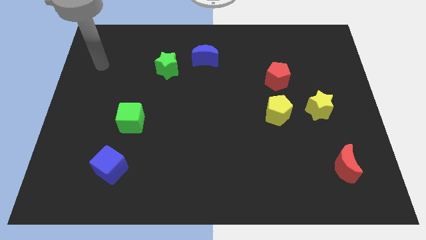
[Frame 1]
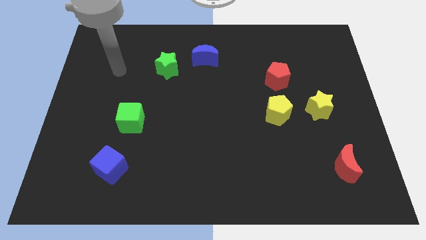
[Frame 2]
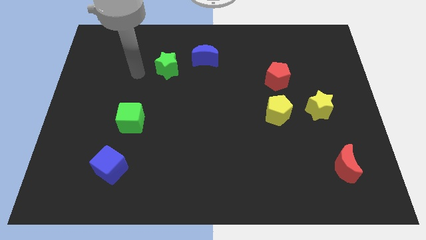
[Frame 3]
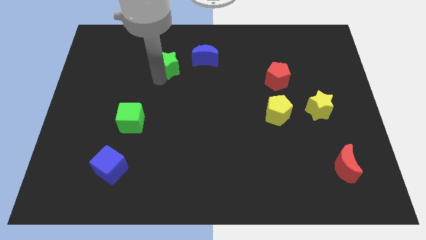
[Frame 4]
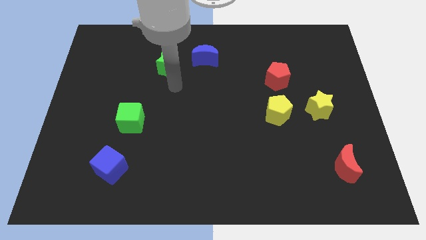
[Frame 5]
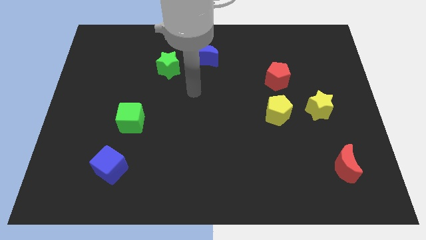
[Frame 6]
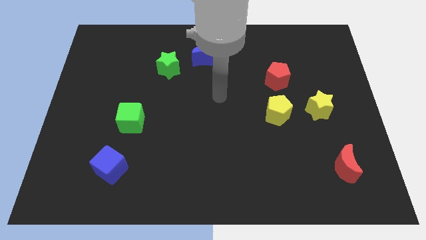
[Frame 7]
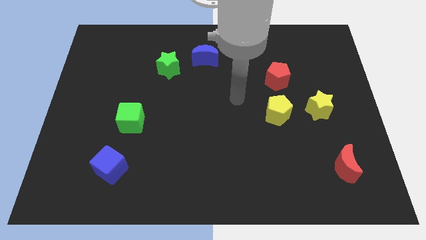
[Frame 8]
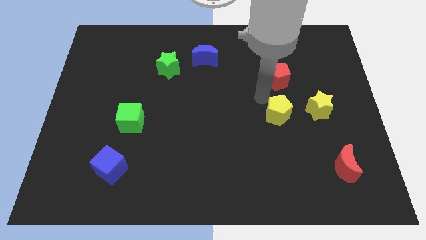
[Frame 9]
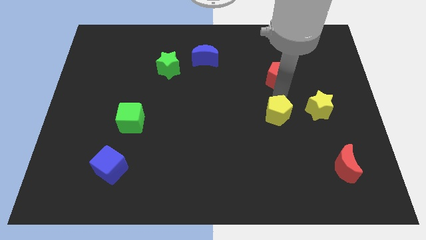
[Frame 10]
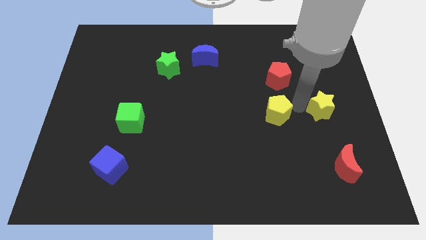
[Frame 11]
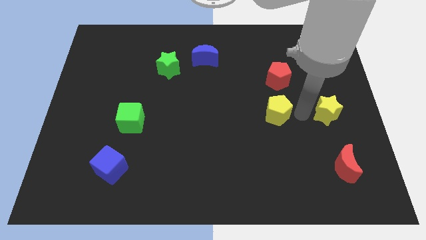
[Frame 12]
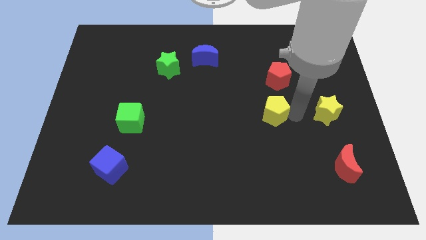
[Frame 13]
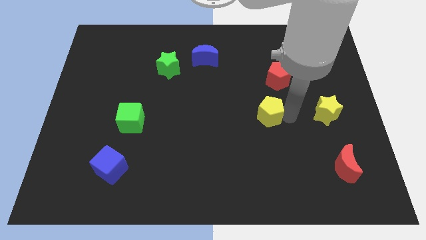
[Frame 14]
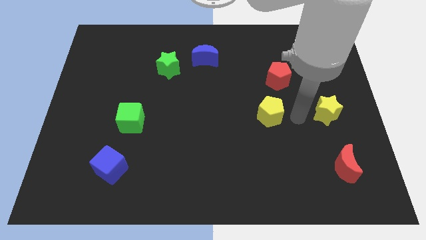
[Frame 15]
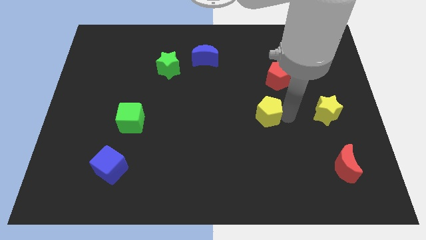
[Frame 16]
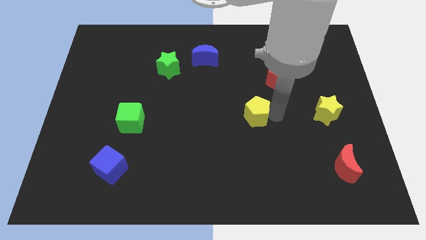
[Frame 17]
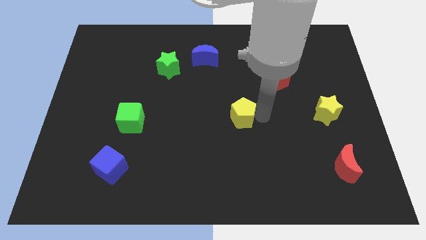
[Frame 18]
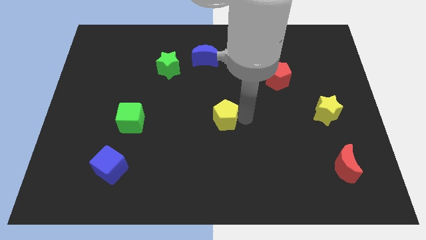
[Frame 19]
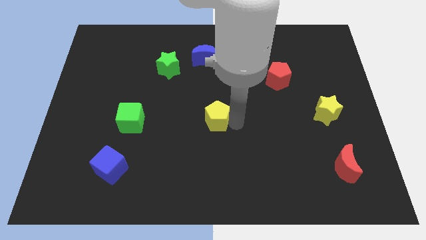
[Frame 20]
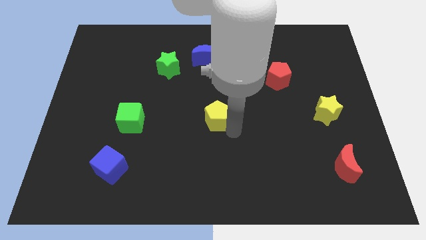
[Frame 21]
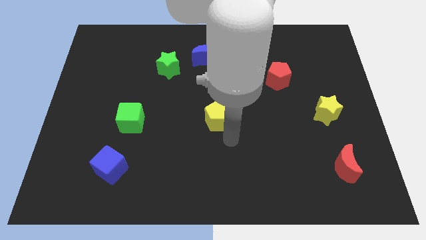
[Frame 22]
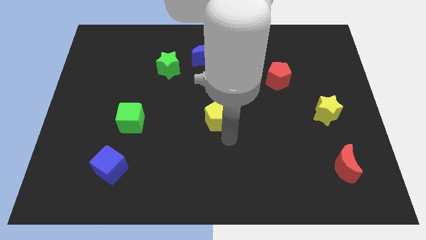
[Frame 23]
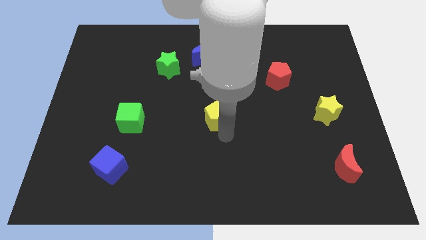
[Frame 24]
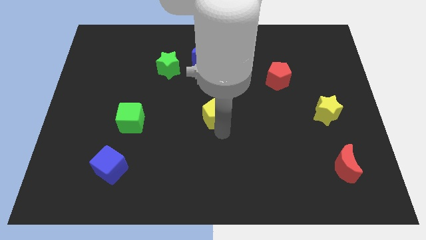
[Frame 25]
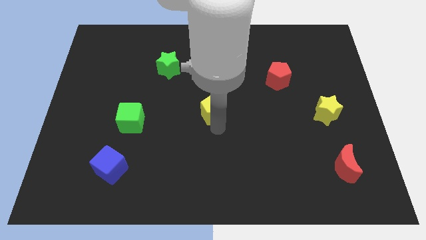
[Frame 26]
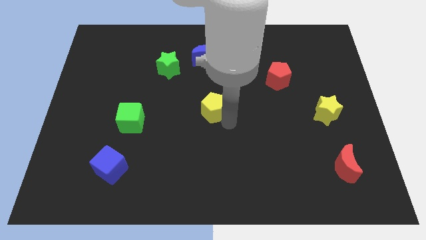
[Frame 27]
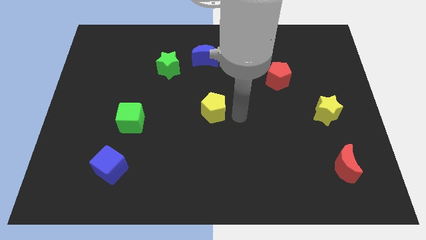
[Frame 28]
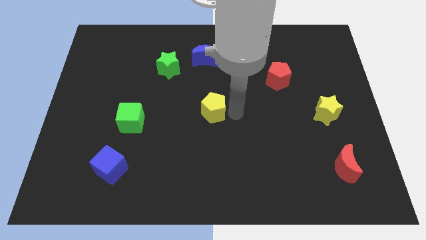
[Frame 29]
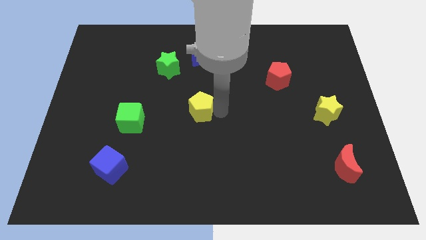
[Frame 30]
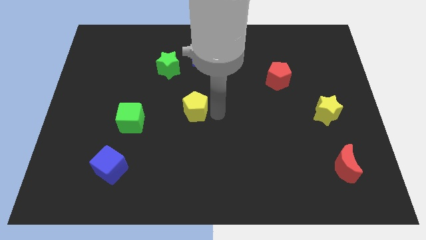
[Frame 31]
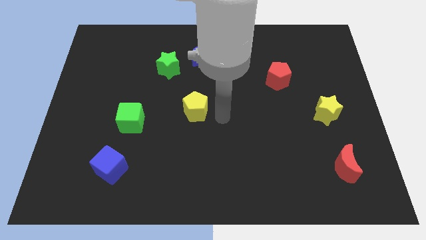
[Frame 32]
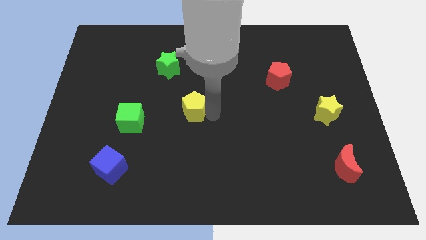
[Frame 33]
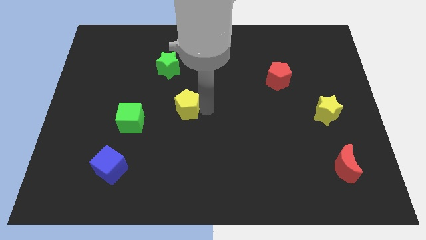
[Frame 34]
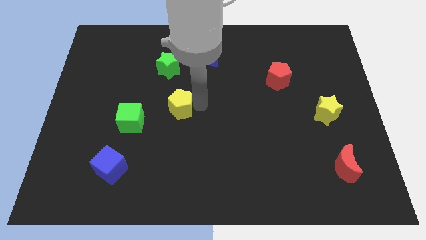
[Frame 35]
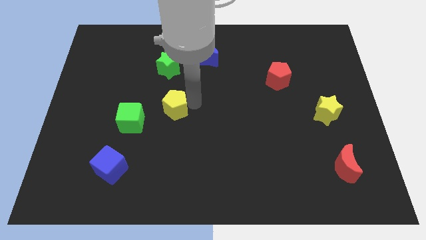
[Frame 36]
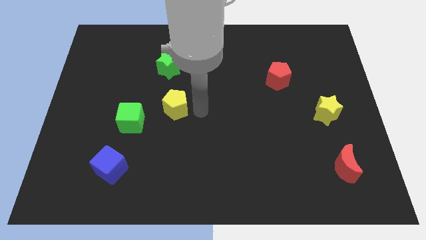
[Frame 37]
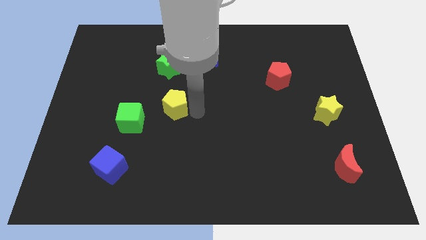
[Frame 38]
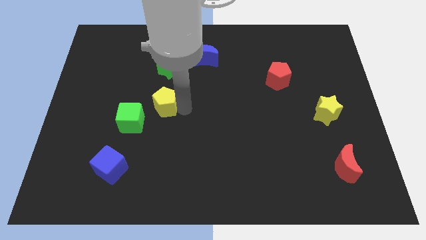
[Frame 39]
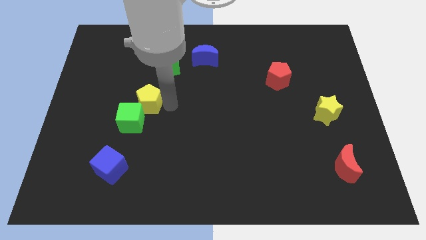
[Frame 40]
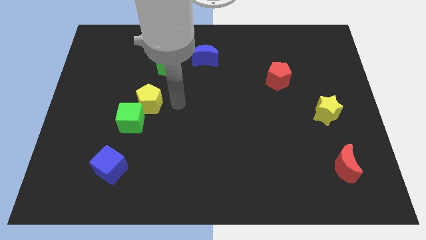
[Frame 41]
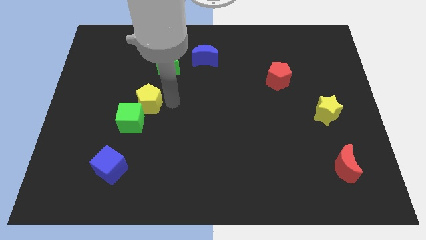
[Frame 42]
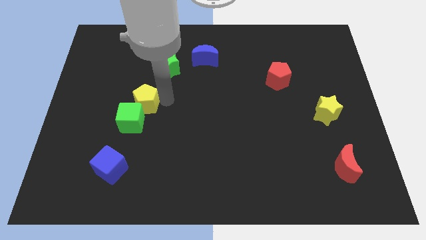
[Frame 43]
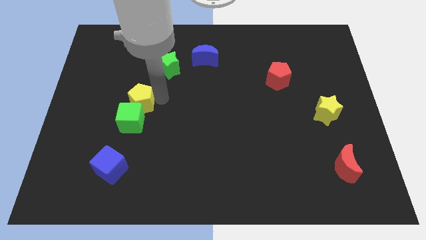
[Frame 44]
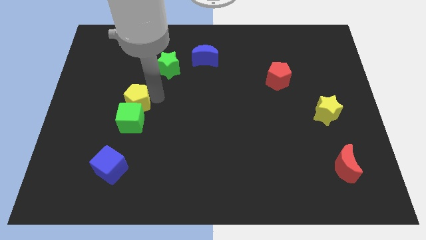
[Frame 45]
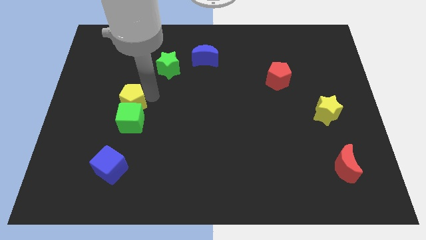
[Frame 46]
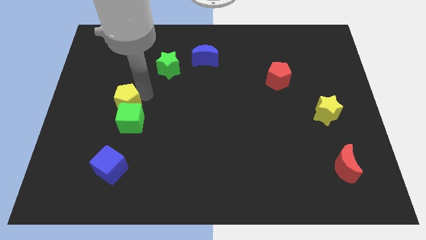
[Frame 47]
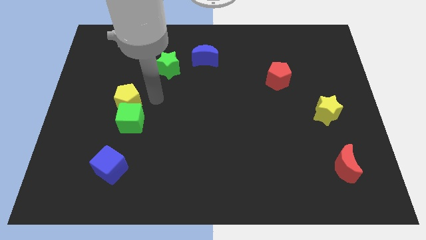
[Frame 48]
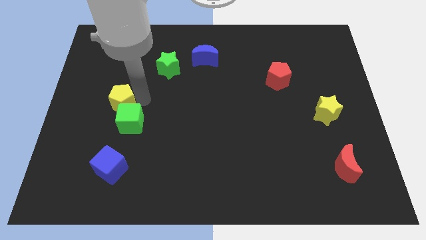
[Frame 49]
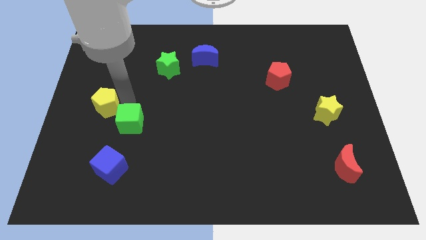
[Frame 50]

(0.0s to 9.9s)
put the yellow pentagon to the center left

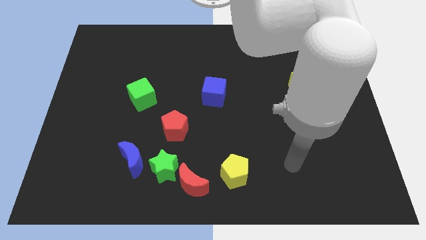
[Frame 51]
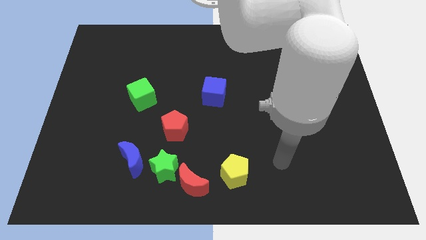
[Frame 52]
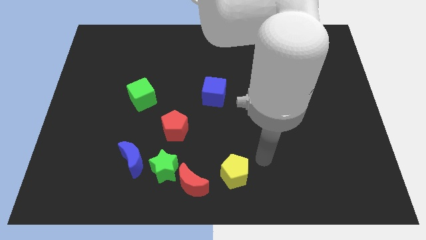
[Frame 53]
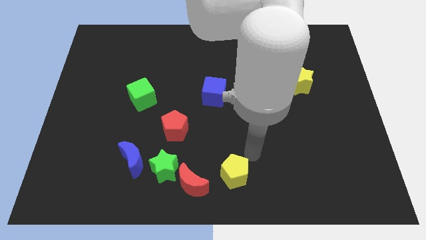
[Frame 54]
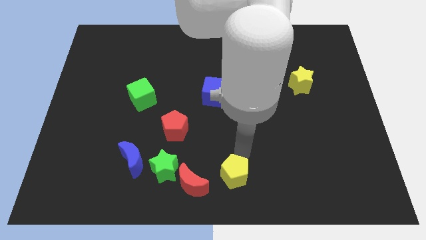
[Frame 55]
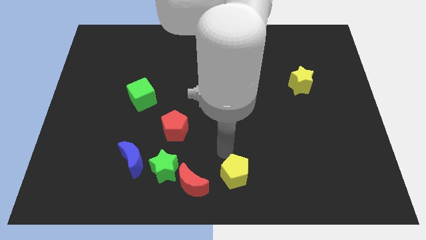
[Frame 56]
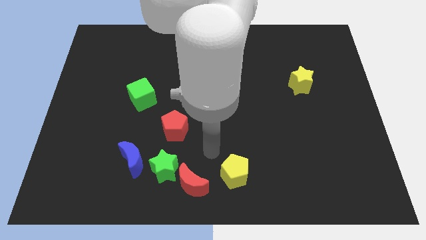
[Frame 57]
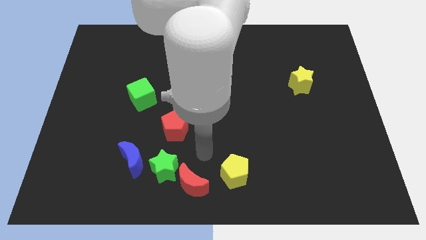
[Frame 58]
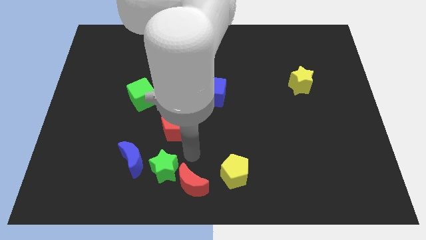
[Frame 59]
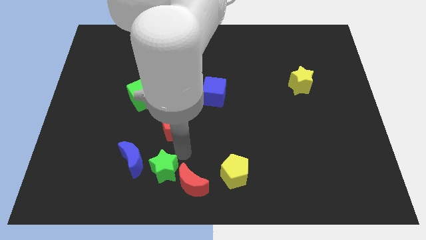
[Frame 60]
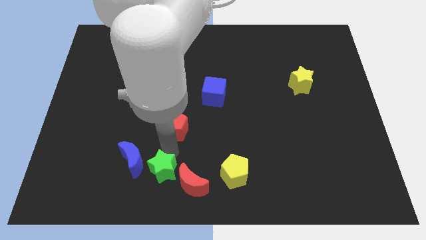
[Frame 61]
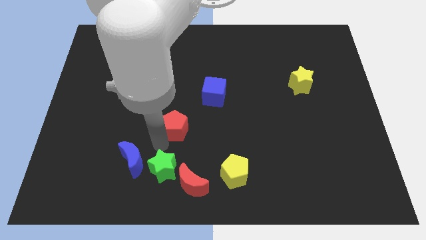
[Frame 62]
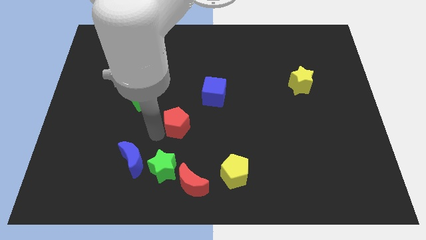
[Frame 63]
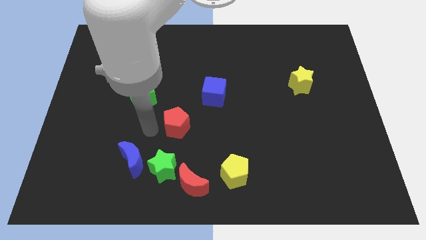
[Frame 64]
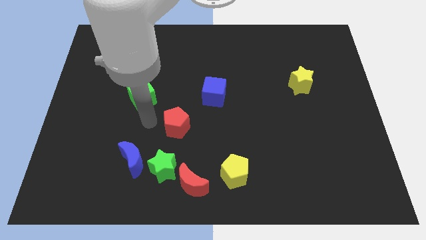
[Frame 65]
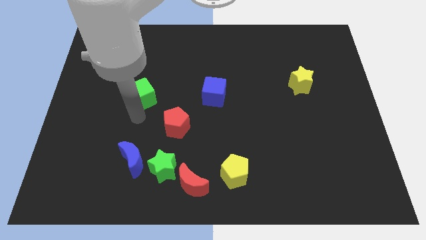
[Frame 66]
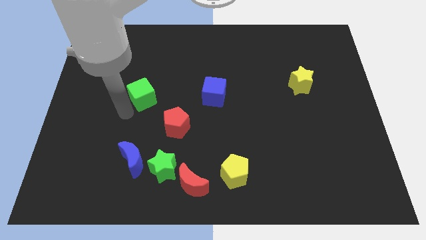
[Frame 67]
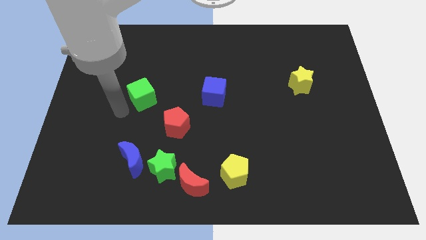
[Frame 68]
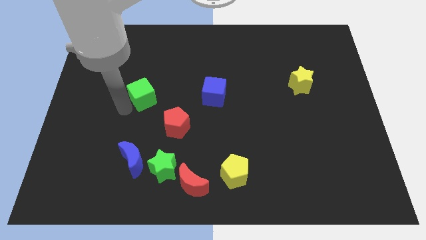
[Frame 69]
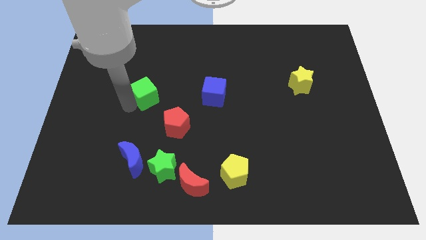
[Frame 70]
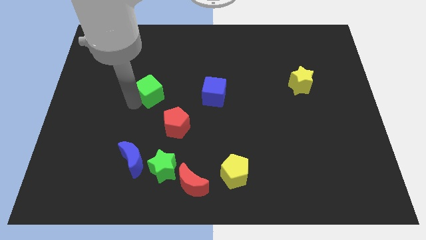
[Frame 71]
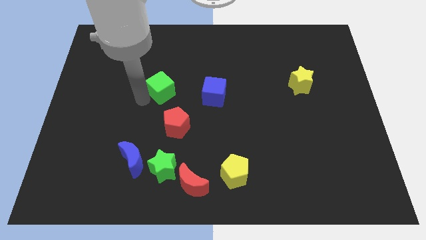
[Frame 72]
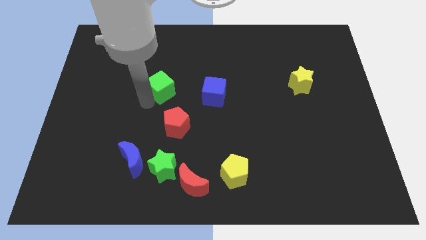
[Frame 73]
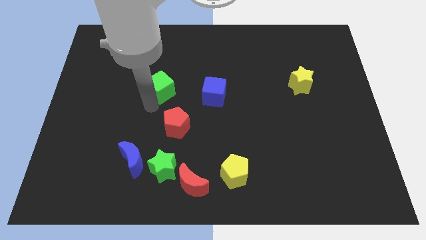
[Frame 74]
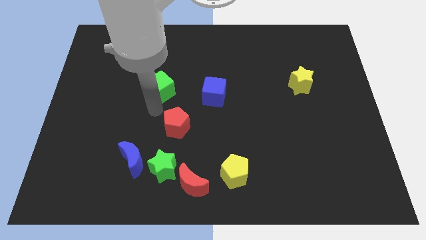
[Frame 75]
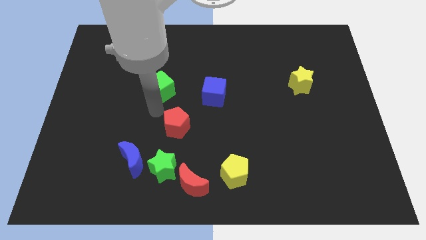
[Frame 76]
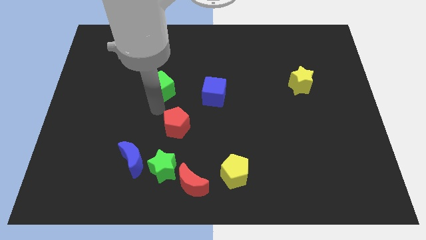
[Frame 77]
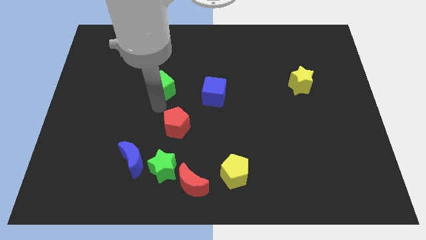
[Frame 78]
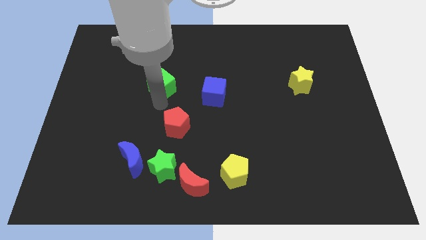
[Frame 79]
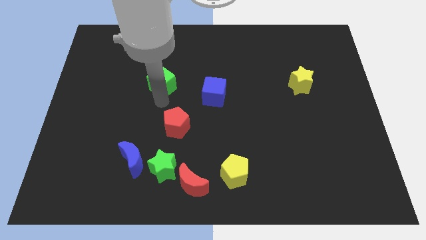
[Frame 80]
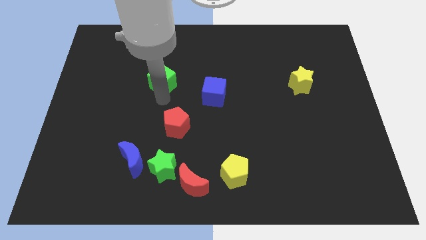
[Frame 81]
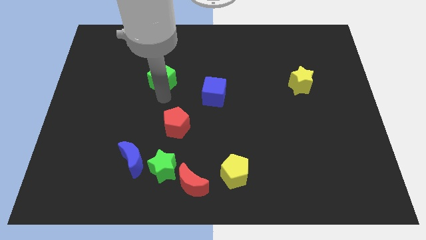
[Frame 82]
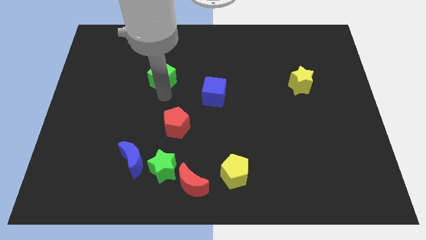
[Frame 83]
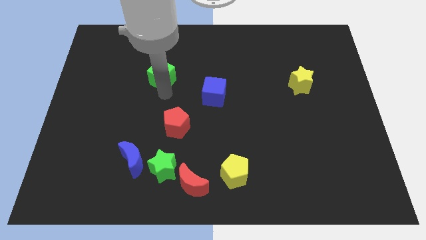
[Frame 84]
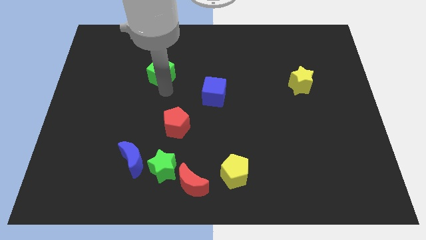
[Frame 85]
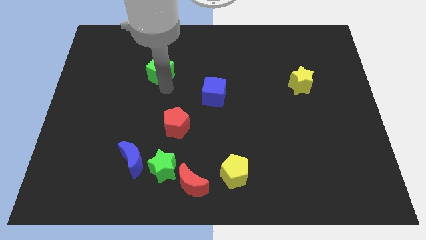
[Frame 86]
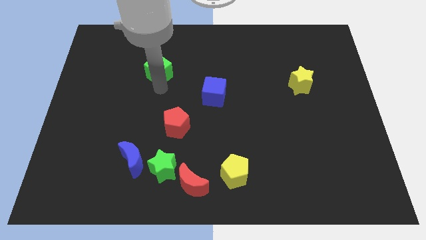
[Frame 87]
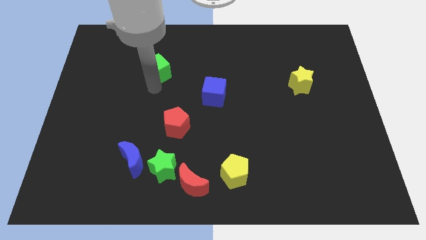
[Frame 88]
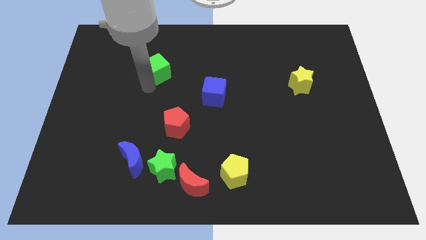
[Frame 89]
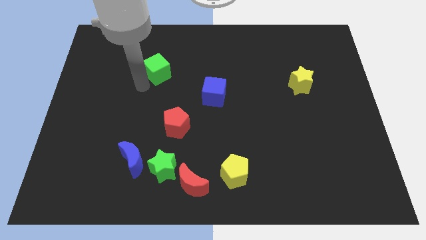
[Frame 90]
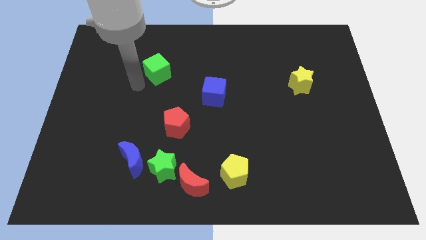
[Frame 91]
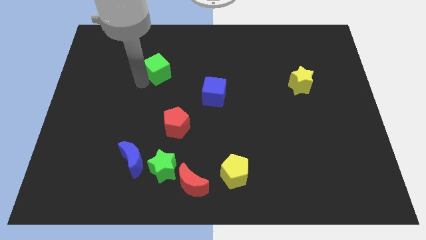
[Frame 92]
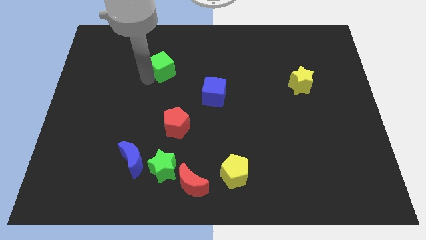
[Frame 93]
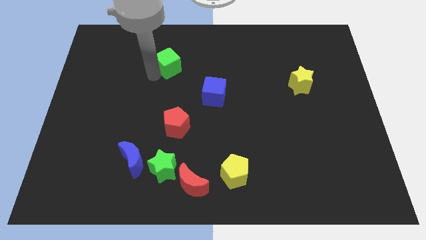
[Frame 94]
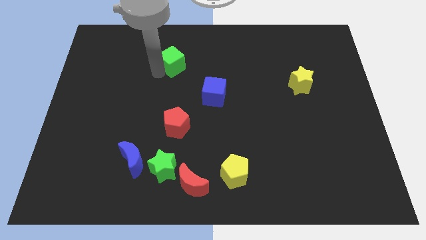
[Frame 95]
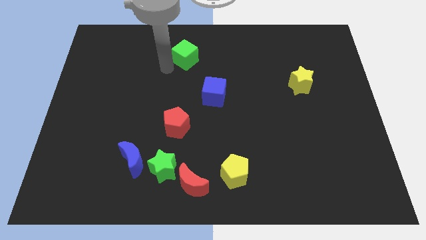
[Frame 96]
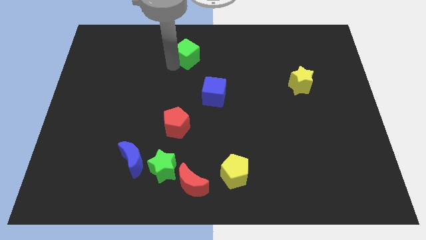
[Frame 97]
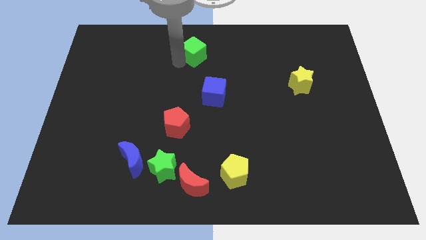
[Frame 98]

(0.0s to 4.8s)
slide the green cube to the towards your base
